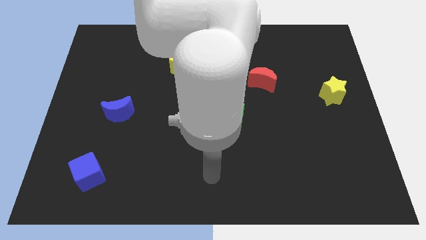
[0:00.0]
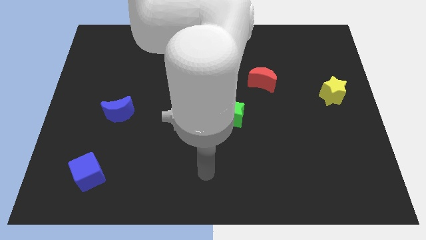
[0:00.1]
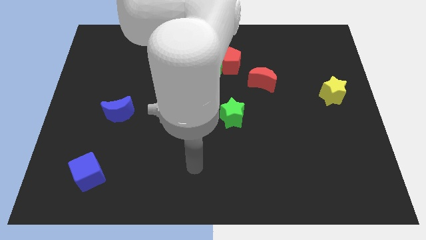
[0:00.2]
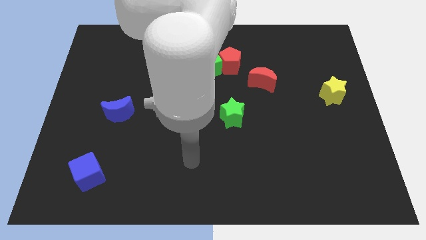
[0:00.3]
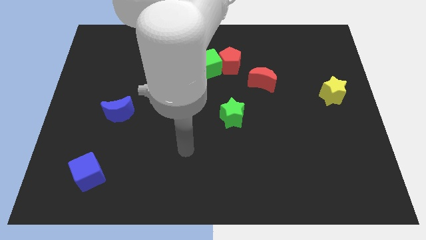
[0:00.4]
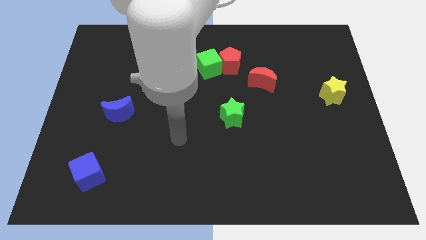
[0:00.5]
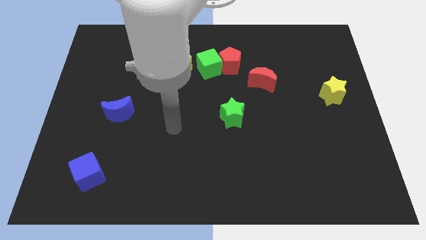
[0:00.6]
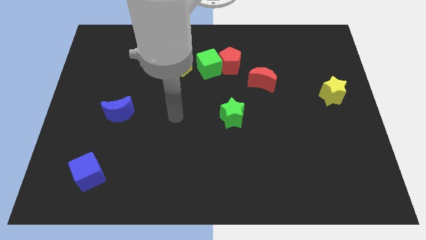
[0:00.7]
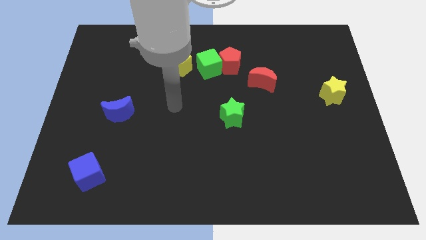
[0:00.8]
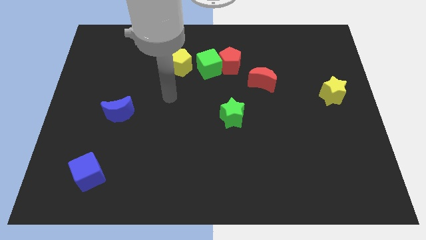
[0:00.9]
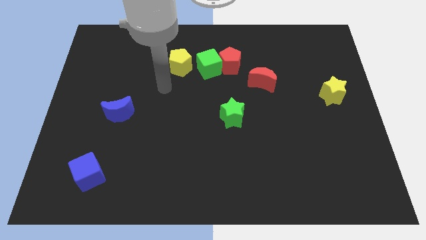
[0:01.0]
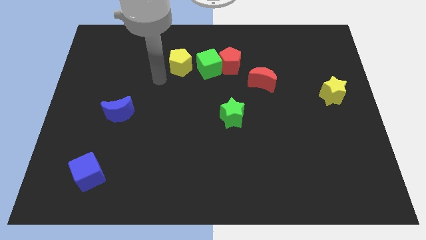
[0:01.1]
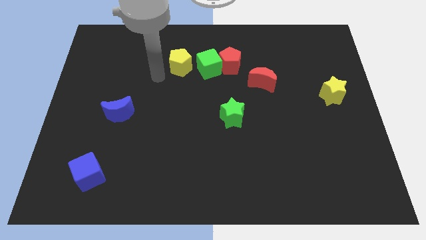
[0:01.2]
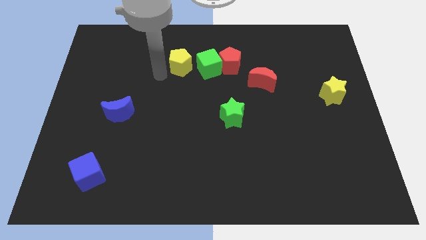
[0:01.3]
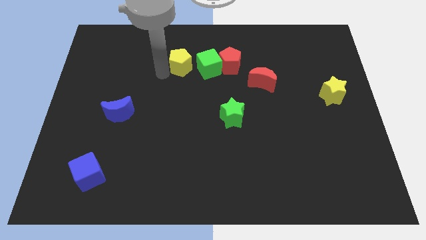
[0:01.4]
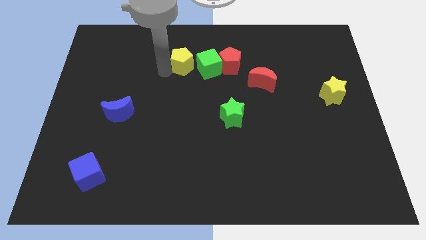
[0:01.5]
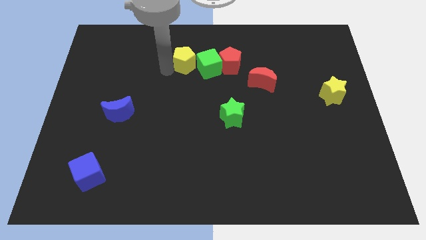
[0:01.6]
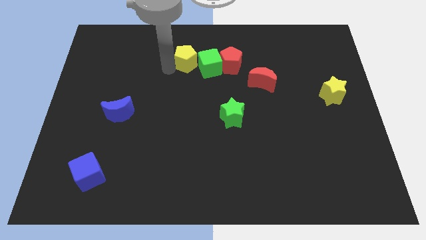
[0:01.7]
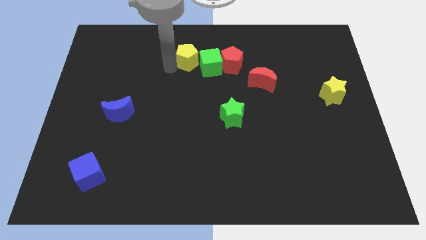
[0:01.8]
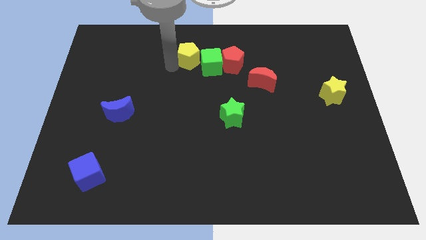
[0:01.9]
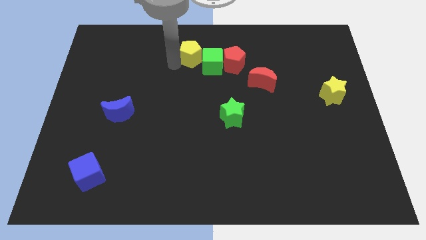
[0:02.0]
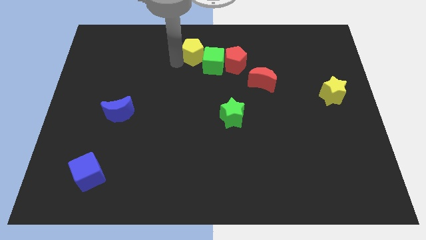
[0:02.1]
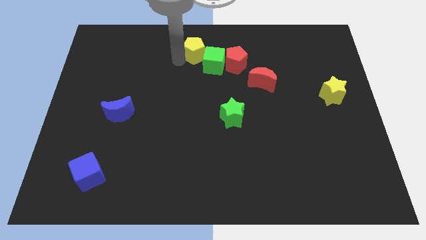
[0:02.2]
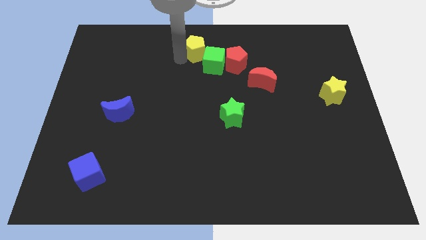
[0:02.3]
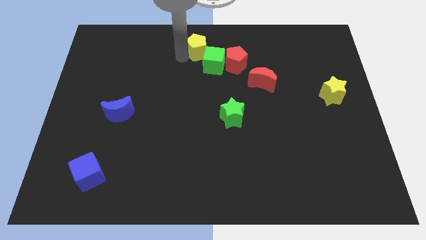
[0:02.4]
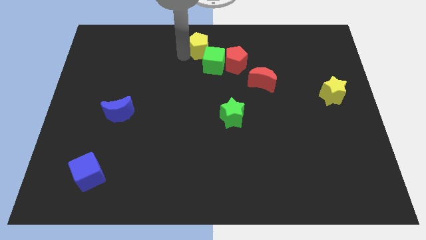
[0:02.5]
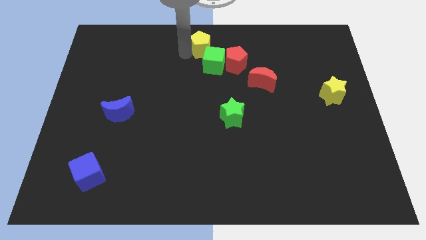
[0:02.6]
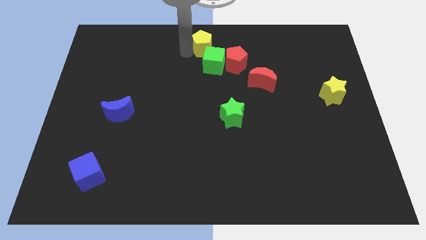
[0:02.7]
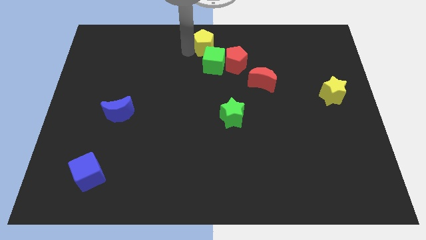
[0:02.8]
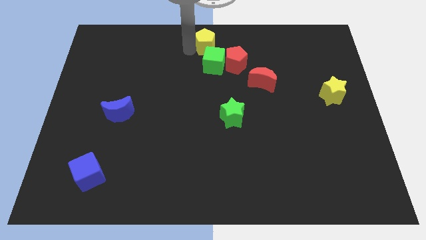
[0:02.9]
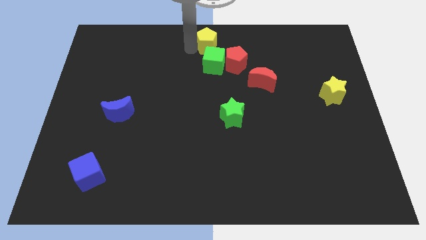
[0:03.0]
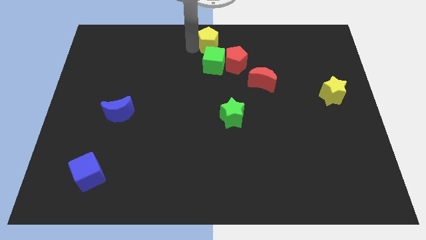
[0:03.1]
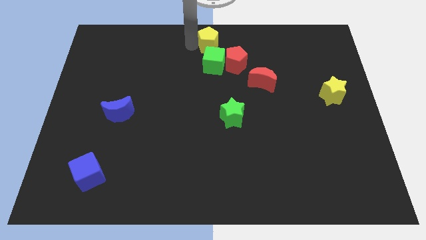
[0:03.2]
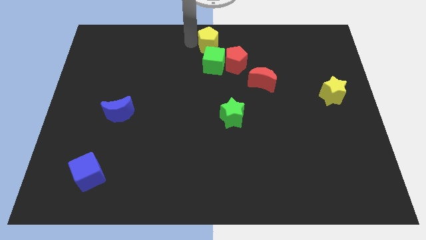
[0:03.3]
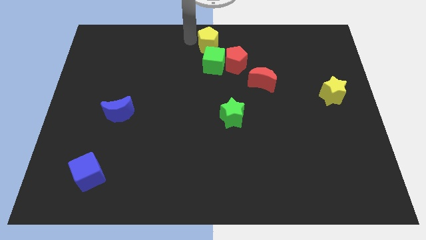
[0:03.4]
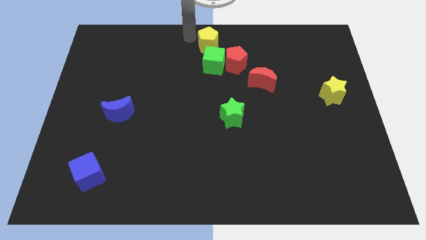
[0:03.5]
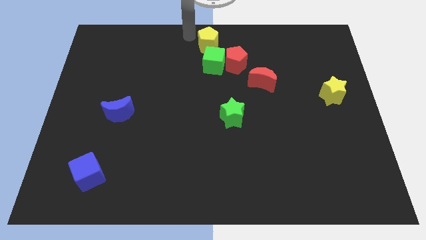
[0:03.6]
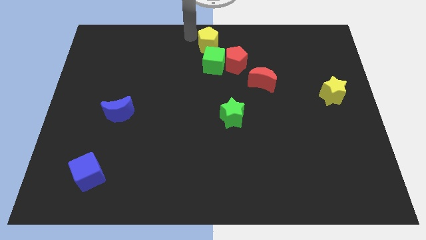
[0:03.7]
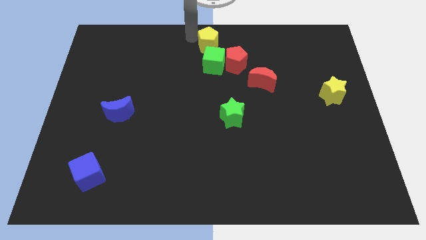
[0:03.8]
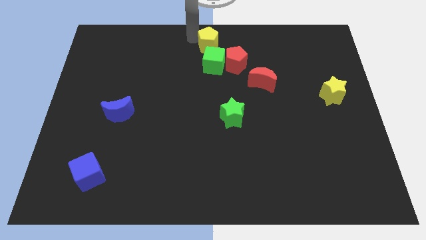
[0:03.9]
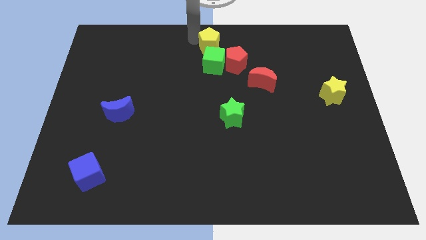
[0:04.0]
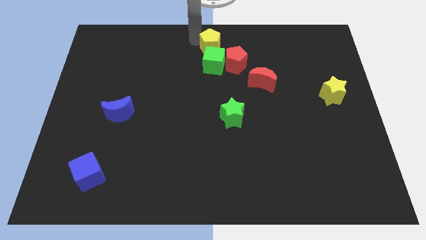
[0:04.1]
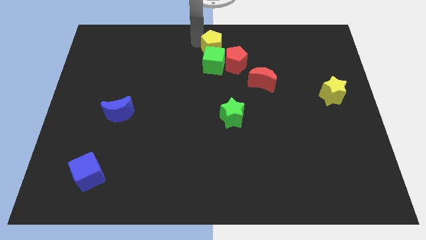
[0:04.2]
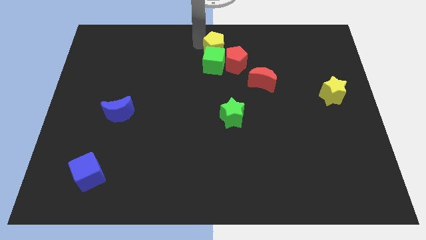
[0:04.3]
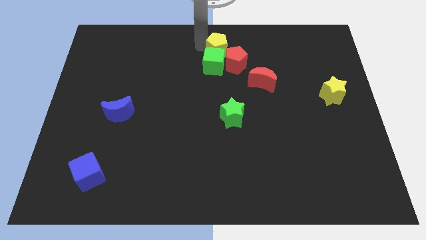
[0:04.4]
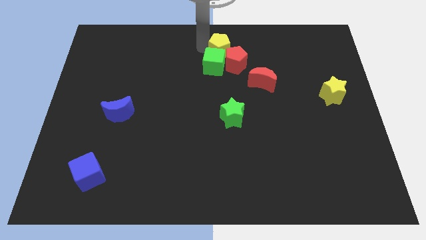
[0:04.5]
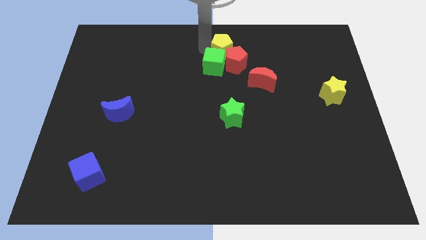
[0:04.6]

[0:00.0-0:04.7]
move the yellow pentagon next to the red pentagon

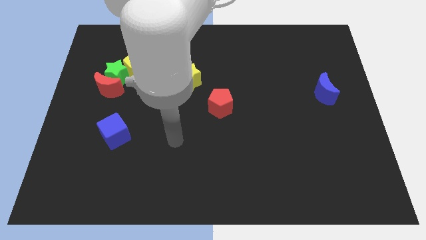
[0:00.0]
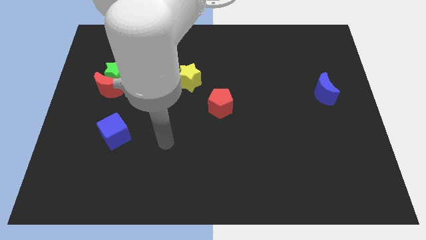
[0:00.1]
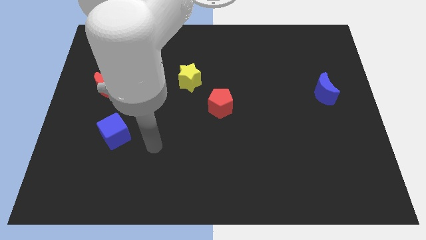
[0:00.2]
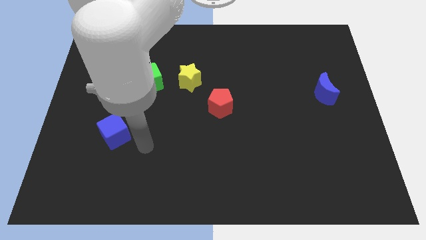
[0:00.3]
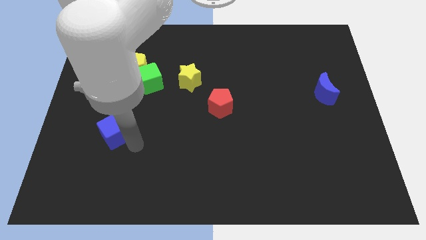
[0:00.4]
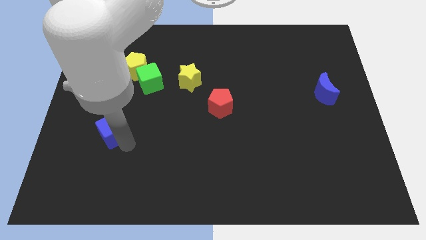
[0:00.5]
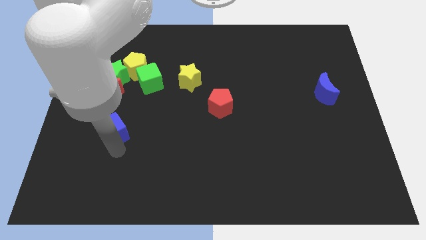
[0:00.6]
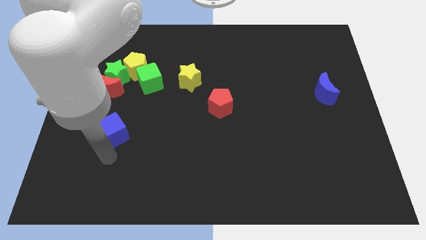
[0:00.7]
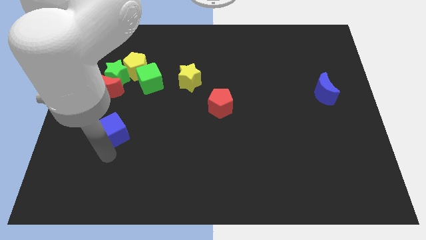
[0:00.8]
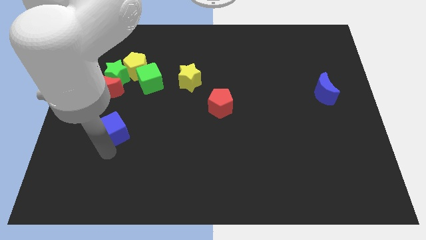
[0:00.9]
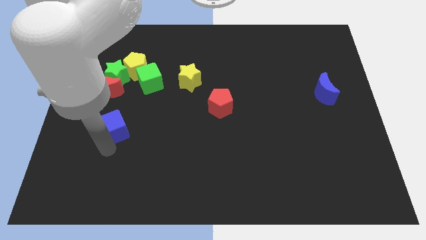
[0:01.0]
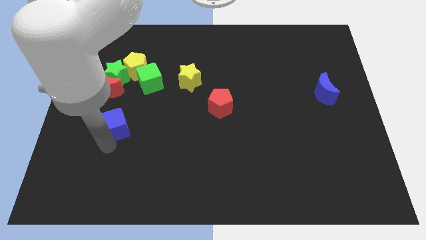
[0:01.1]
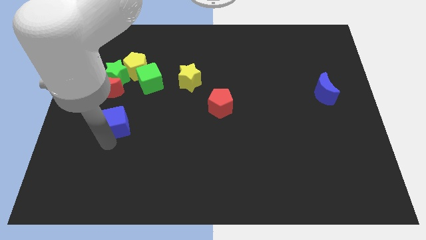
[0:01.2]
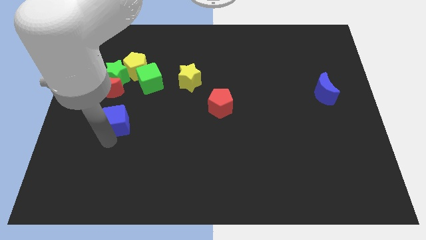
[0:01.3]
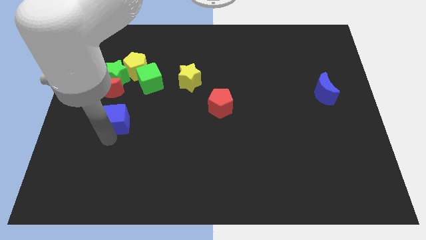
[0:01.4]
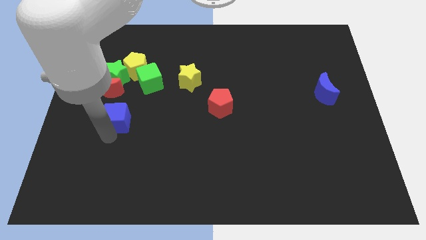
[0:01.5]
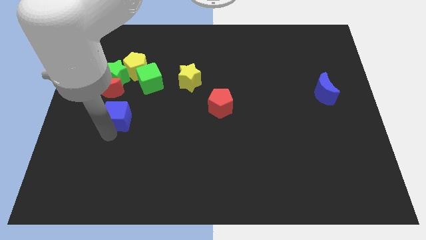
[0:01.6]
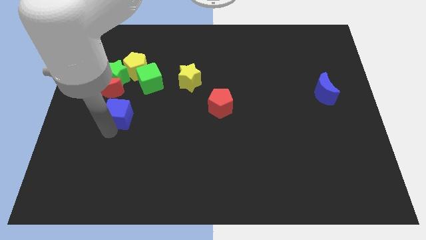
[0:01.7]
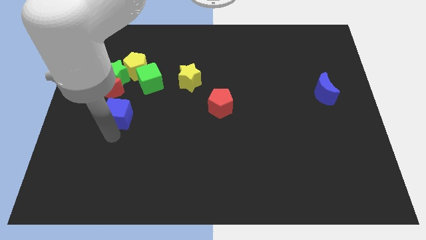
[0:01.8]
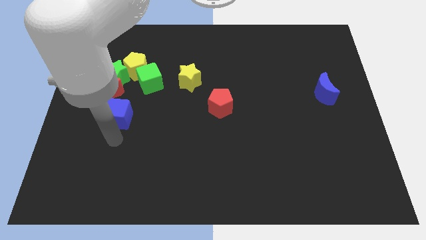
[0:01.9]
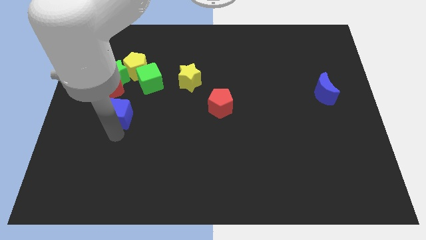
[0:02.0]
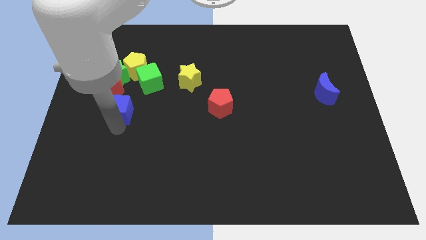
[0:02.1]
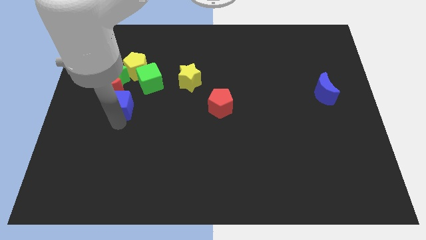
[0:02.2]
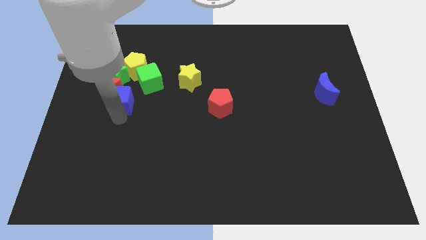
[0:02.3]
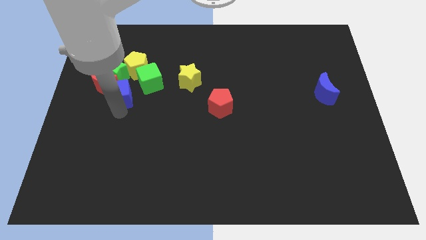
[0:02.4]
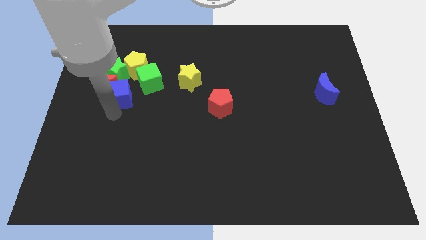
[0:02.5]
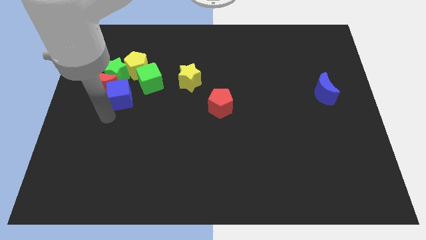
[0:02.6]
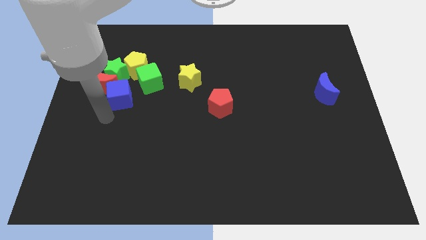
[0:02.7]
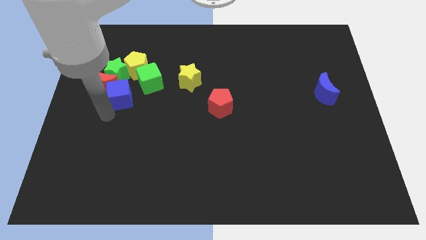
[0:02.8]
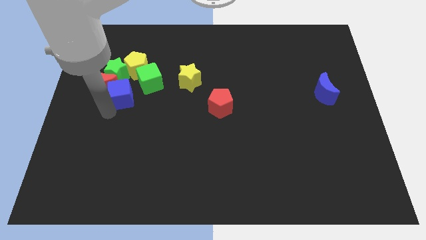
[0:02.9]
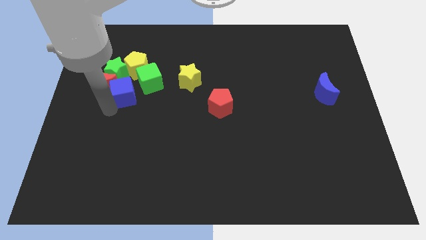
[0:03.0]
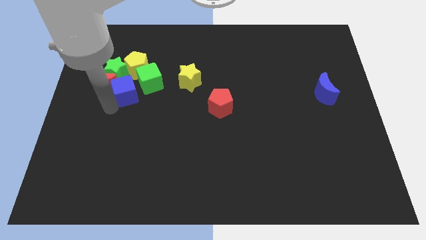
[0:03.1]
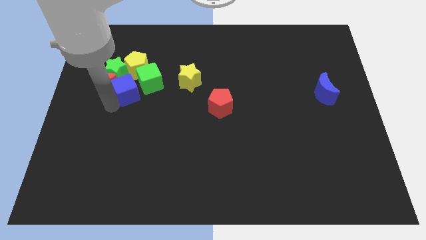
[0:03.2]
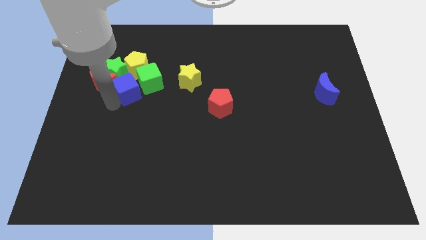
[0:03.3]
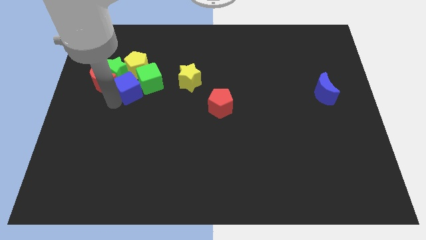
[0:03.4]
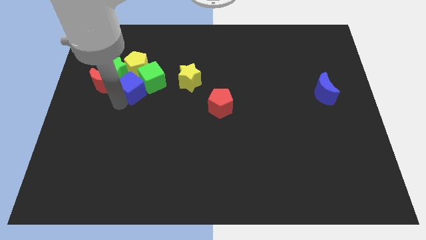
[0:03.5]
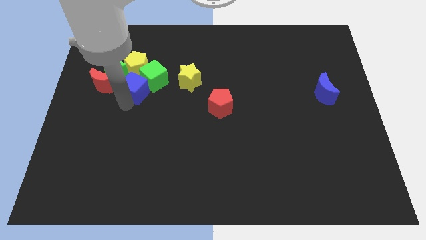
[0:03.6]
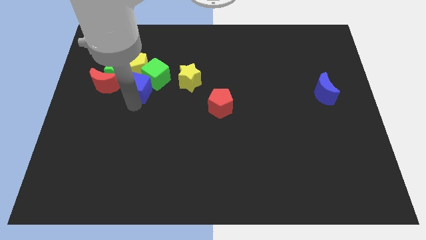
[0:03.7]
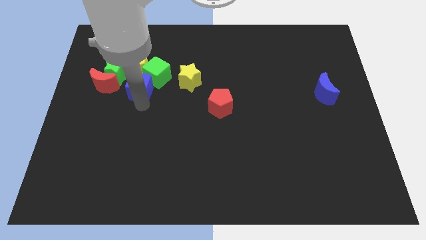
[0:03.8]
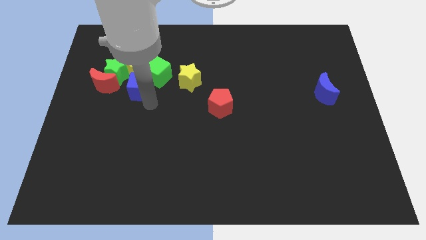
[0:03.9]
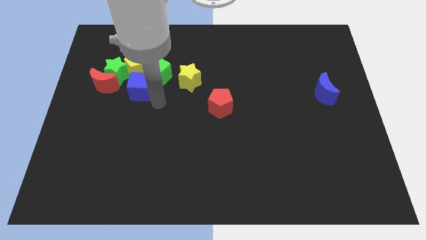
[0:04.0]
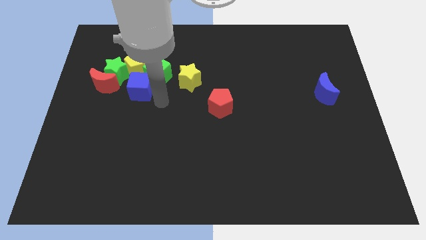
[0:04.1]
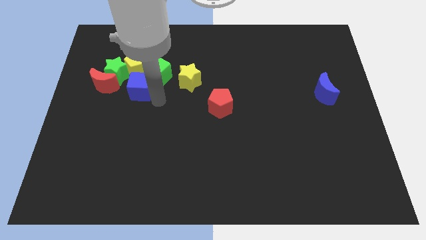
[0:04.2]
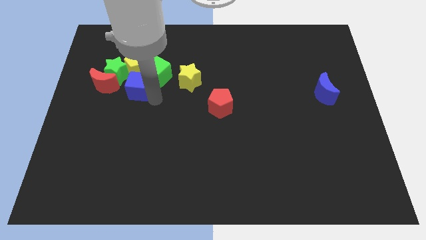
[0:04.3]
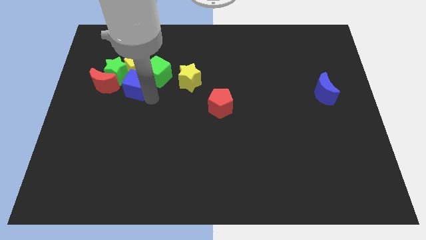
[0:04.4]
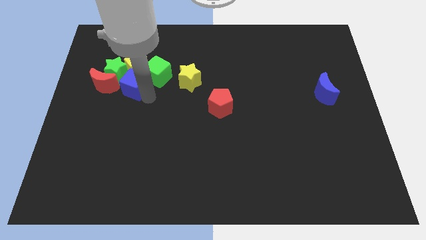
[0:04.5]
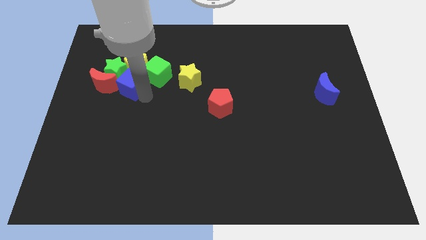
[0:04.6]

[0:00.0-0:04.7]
slide the blue cube next to the green star
